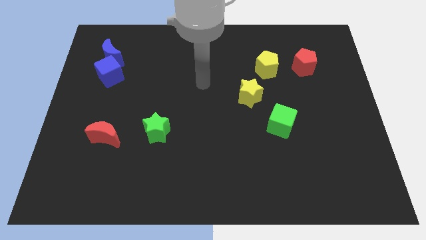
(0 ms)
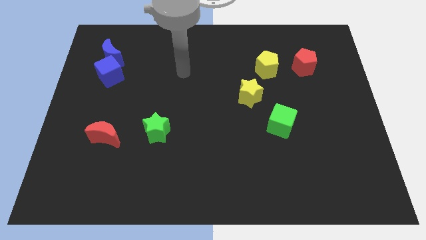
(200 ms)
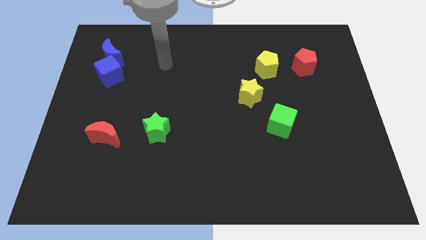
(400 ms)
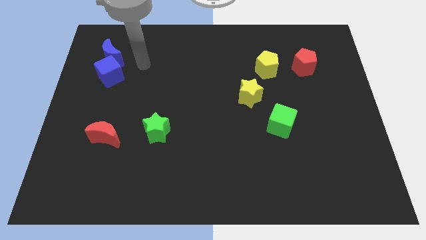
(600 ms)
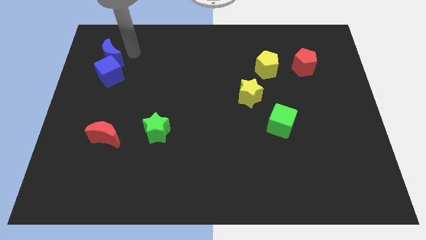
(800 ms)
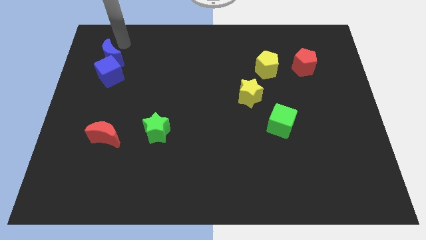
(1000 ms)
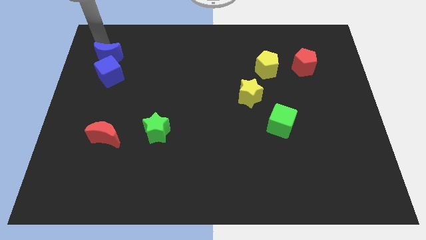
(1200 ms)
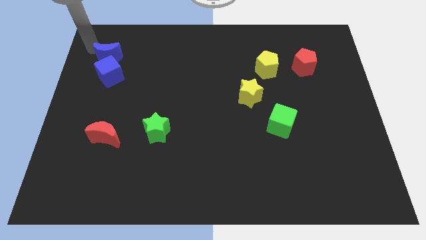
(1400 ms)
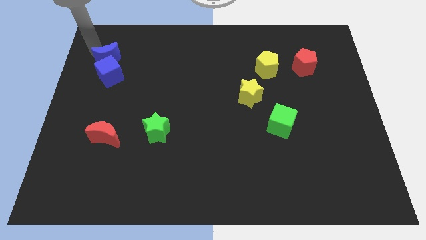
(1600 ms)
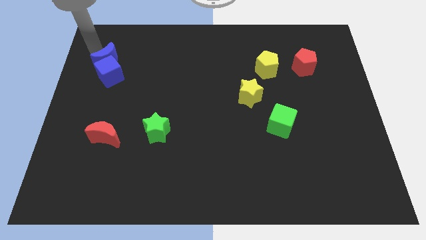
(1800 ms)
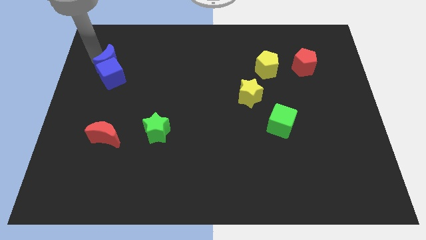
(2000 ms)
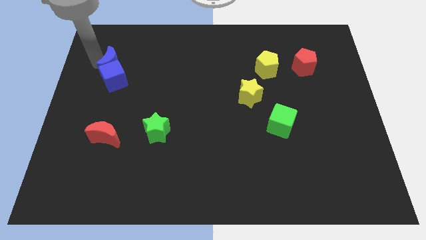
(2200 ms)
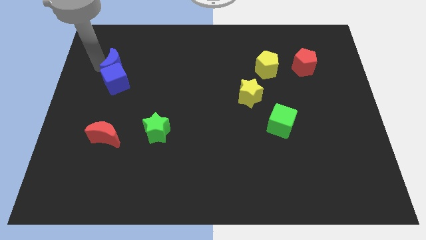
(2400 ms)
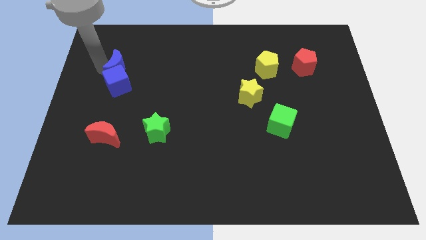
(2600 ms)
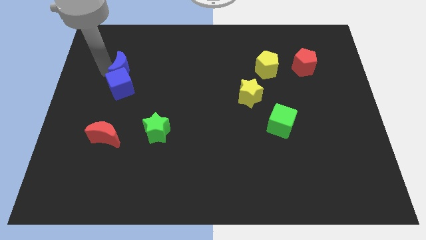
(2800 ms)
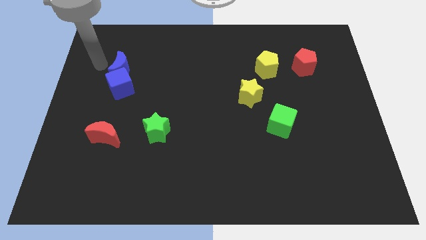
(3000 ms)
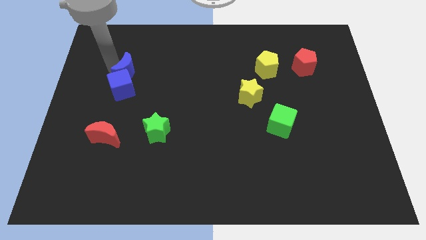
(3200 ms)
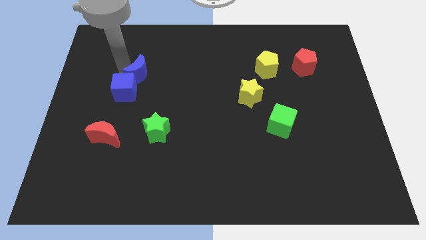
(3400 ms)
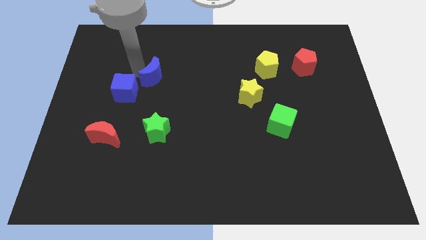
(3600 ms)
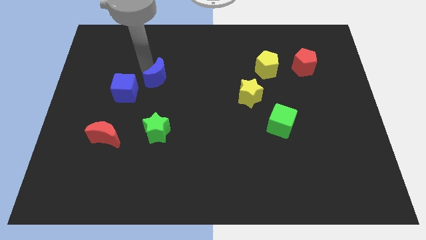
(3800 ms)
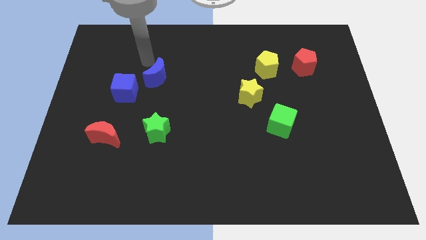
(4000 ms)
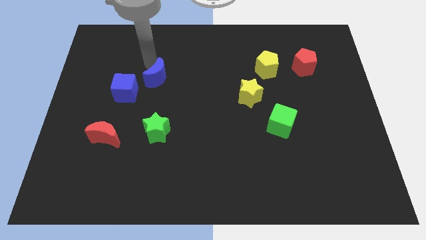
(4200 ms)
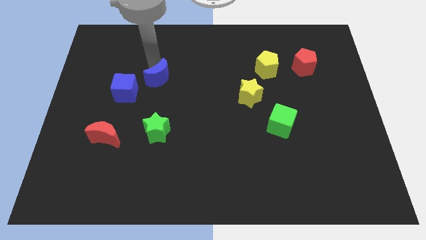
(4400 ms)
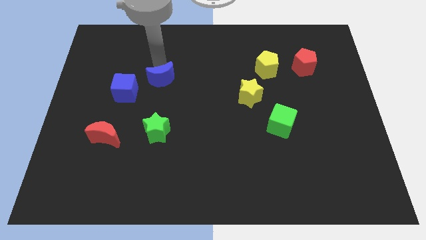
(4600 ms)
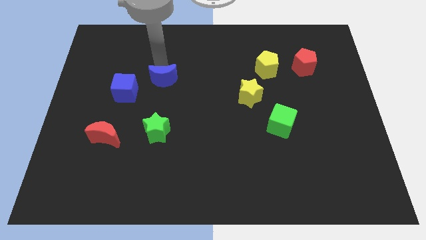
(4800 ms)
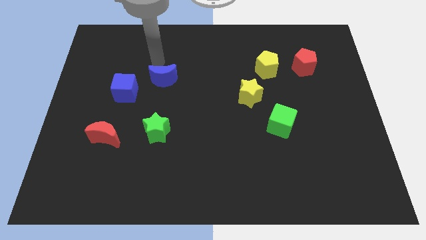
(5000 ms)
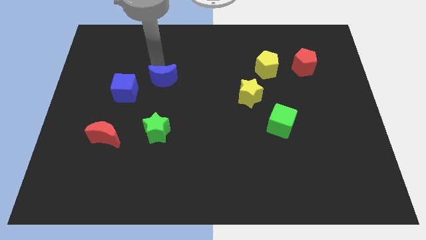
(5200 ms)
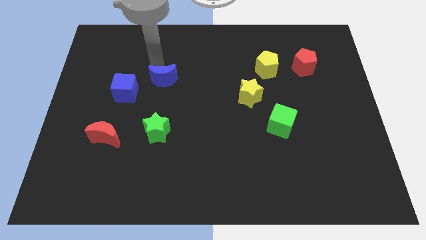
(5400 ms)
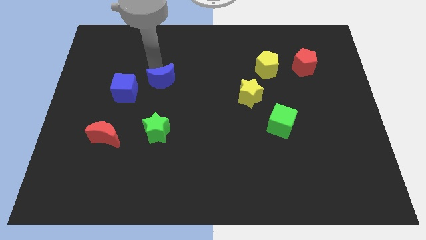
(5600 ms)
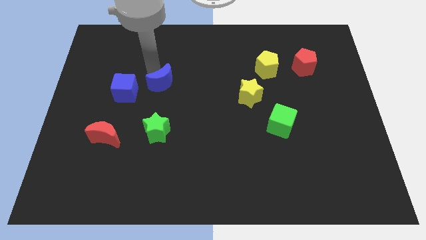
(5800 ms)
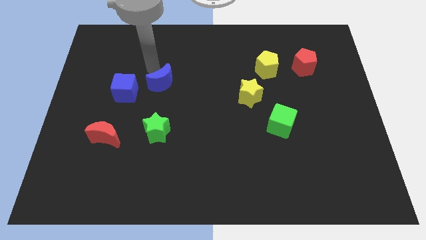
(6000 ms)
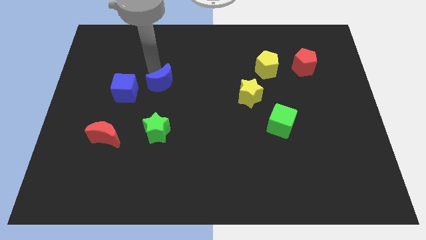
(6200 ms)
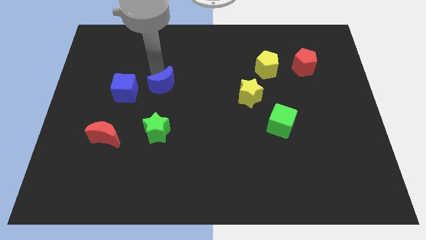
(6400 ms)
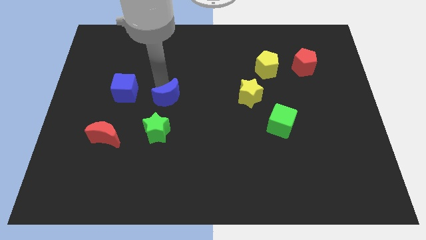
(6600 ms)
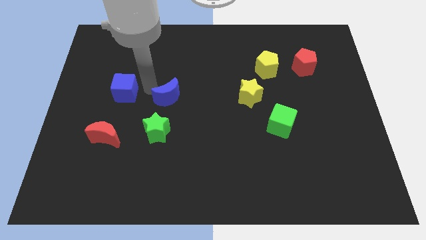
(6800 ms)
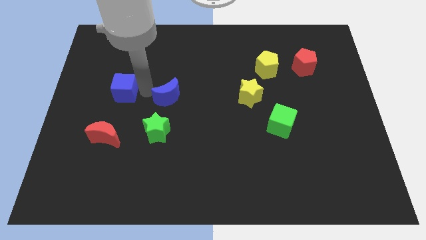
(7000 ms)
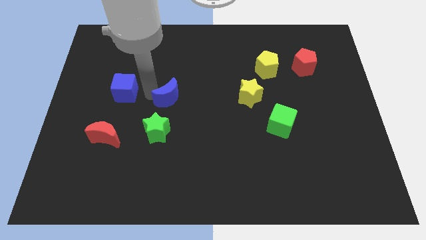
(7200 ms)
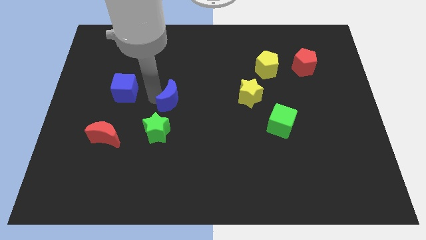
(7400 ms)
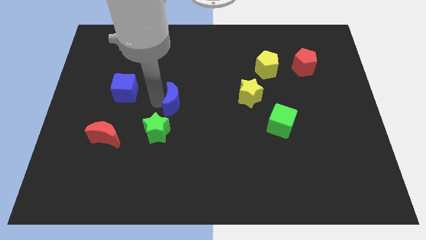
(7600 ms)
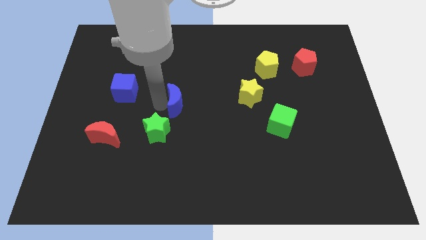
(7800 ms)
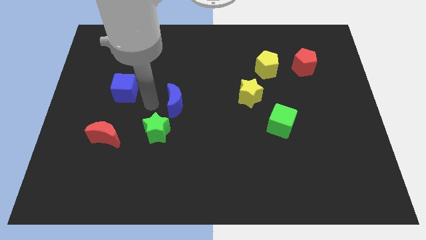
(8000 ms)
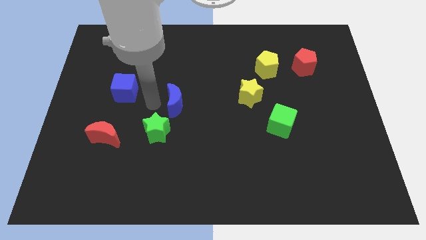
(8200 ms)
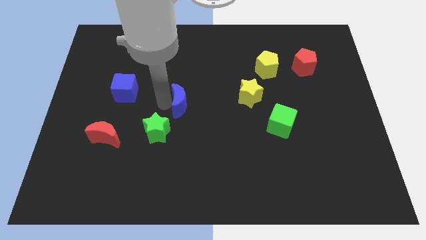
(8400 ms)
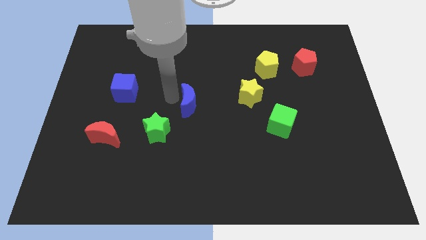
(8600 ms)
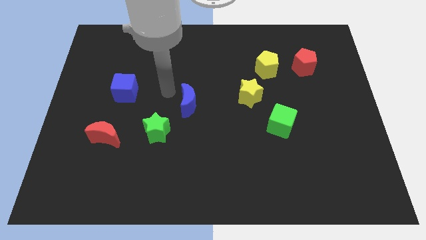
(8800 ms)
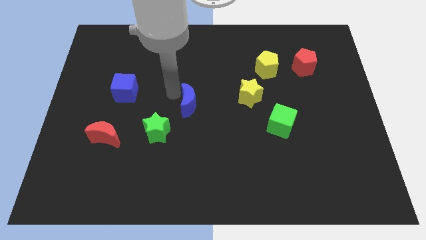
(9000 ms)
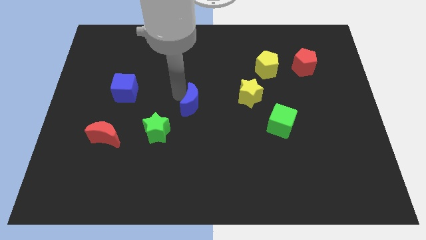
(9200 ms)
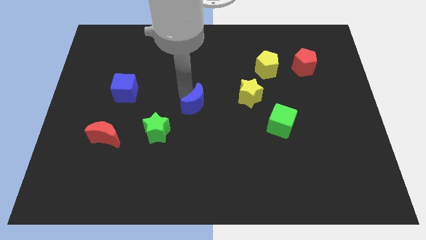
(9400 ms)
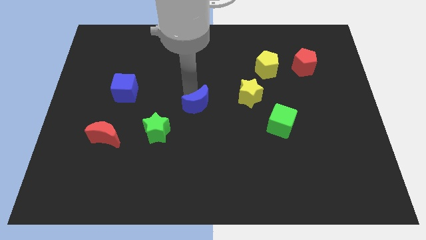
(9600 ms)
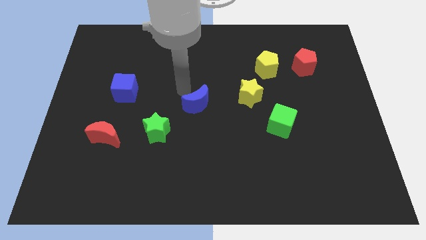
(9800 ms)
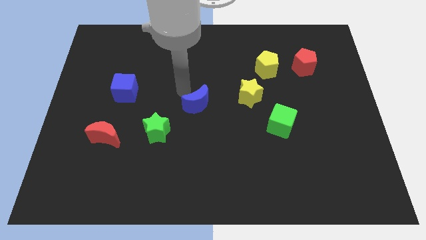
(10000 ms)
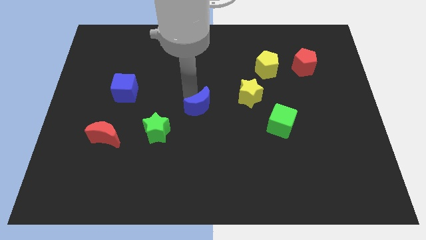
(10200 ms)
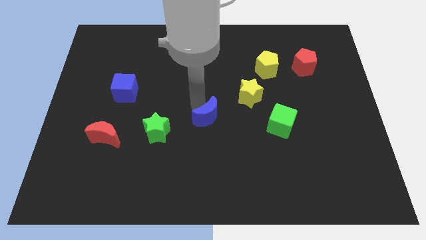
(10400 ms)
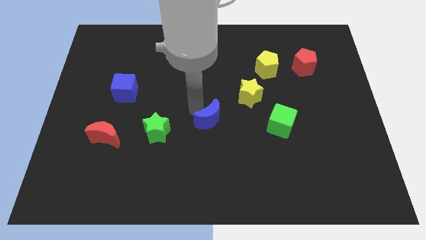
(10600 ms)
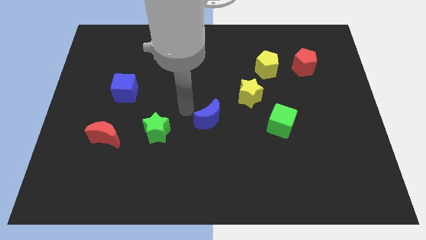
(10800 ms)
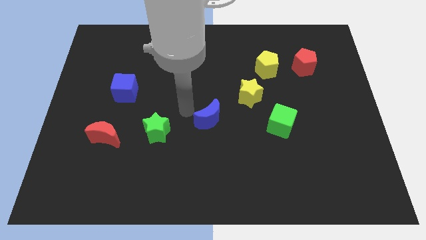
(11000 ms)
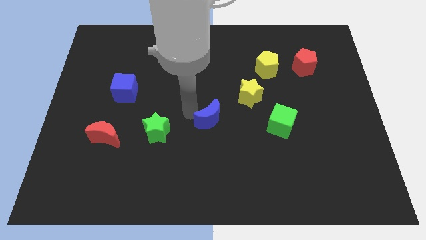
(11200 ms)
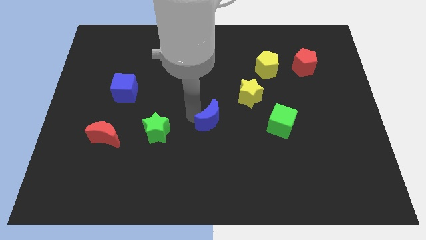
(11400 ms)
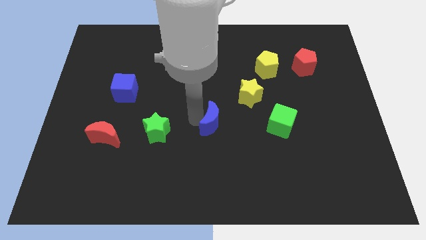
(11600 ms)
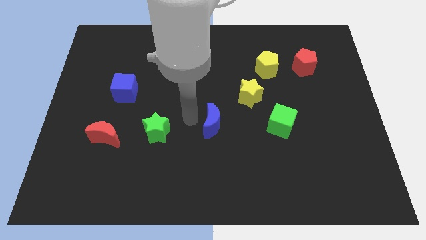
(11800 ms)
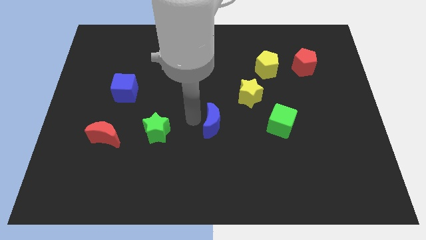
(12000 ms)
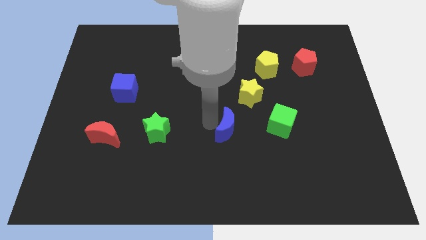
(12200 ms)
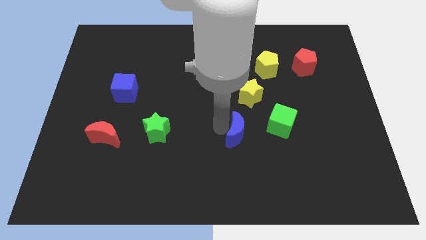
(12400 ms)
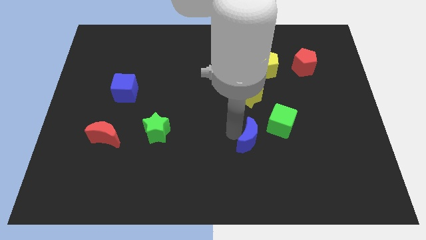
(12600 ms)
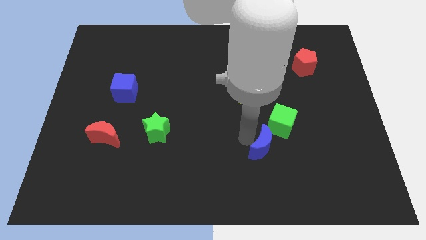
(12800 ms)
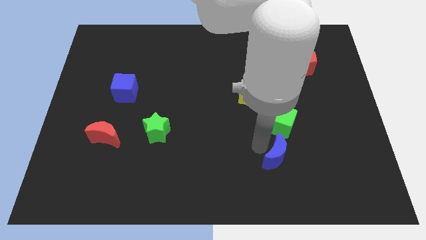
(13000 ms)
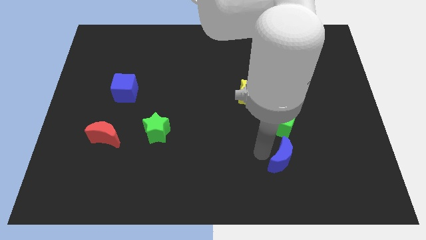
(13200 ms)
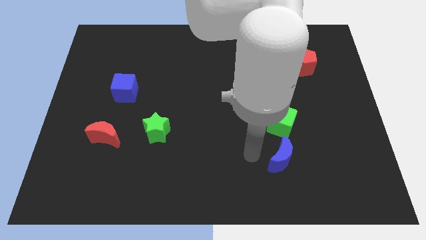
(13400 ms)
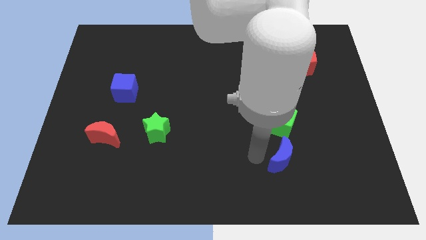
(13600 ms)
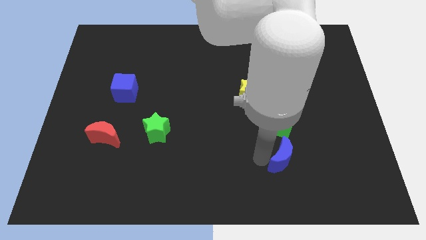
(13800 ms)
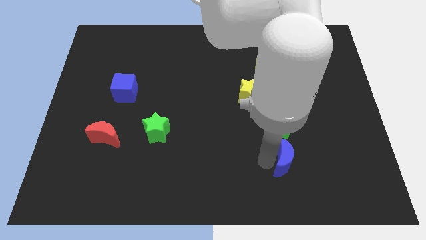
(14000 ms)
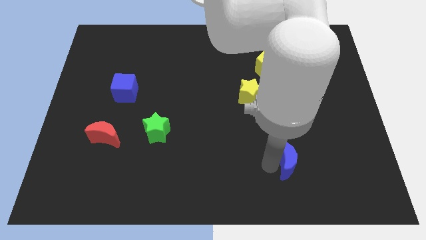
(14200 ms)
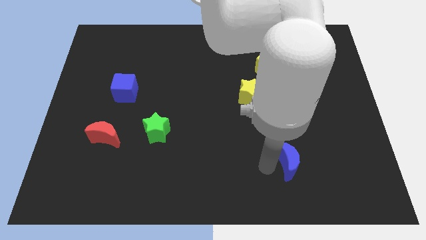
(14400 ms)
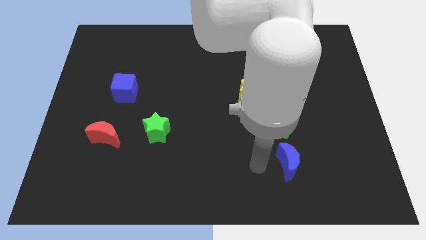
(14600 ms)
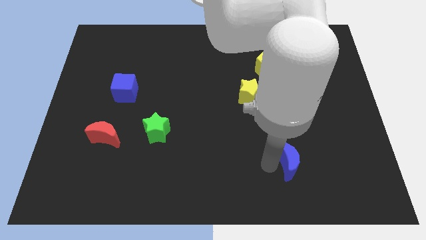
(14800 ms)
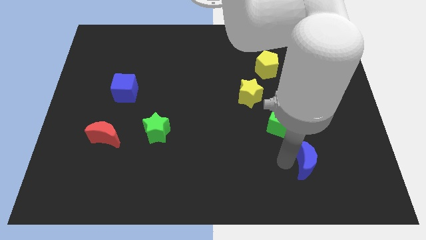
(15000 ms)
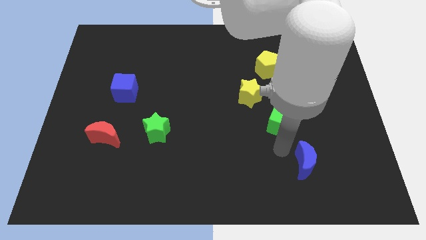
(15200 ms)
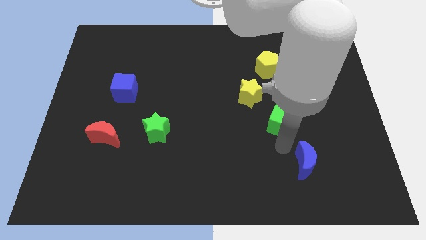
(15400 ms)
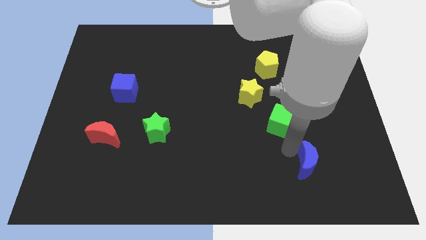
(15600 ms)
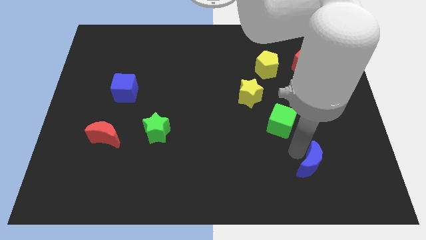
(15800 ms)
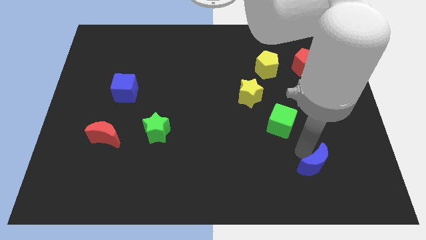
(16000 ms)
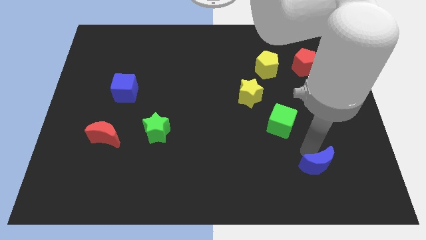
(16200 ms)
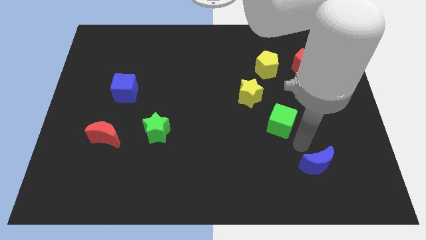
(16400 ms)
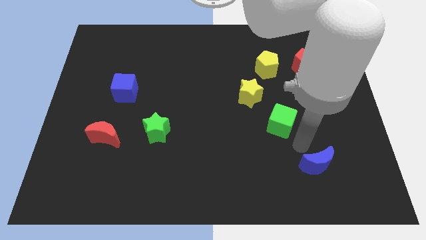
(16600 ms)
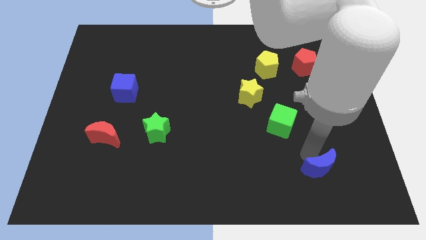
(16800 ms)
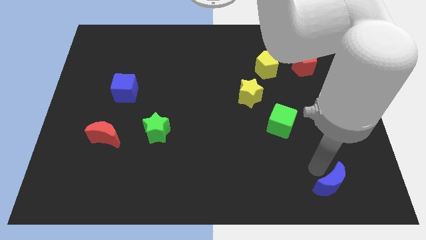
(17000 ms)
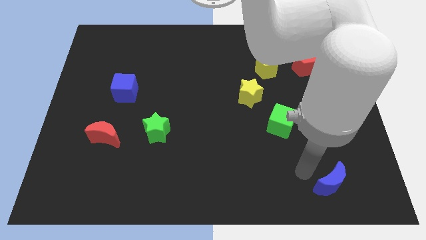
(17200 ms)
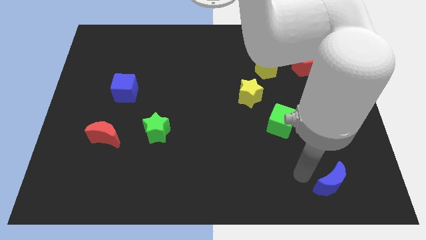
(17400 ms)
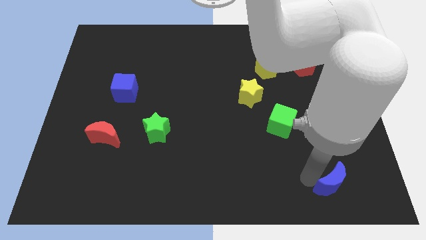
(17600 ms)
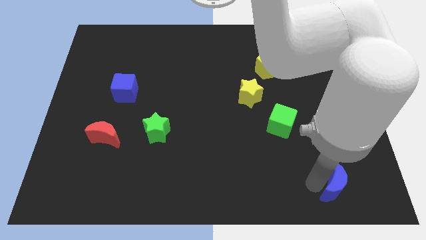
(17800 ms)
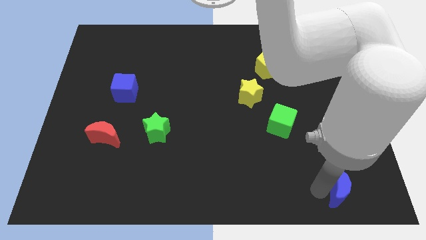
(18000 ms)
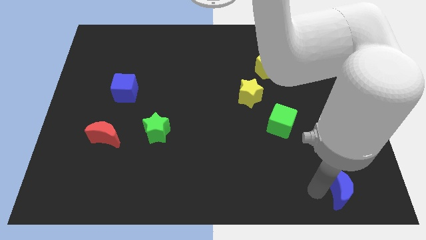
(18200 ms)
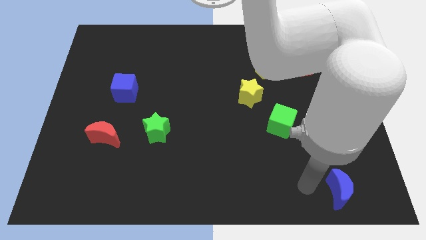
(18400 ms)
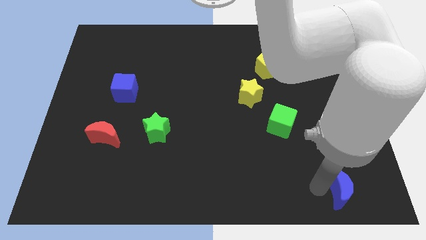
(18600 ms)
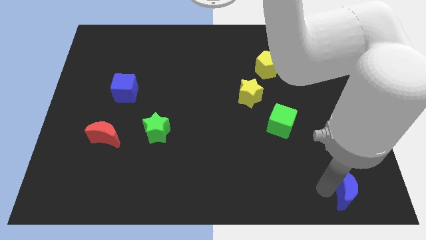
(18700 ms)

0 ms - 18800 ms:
put the blue moon to the bottom right of the board
